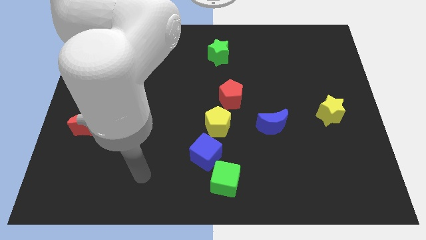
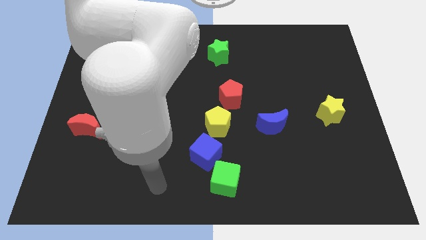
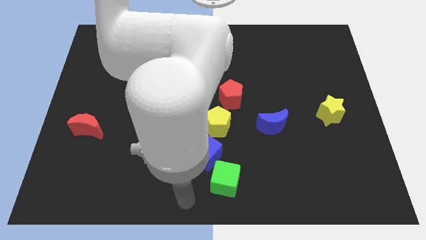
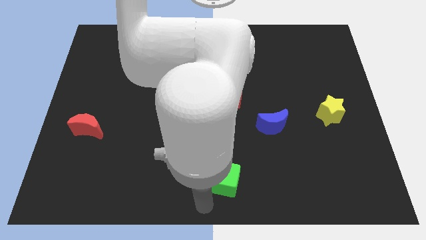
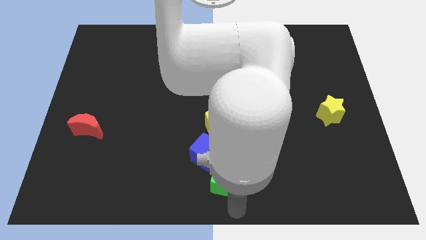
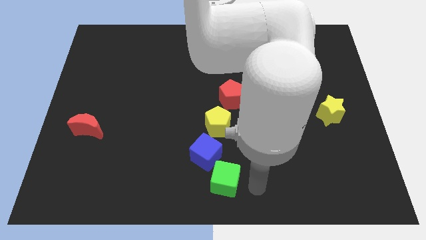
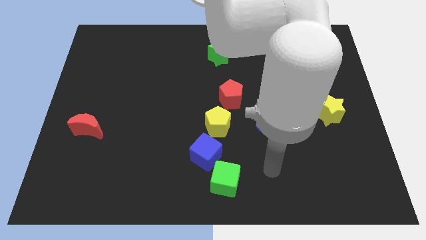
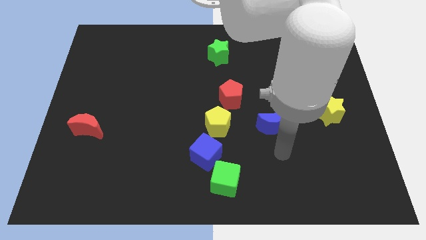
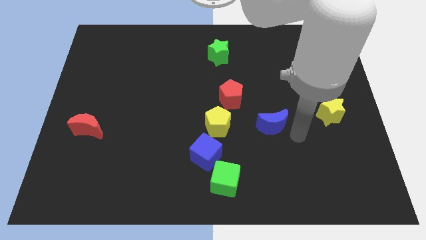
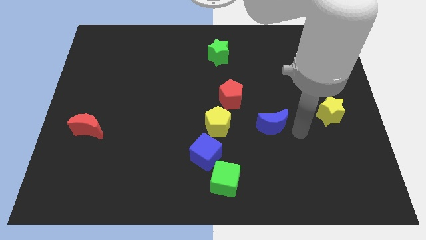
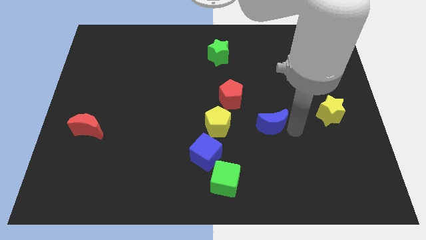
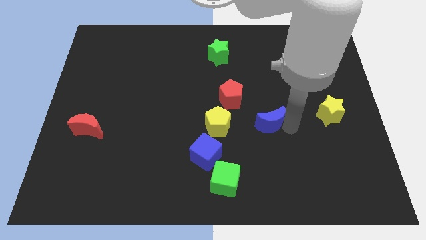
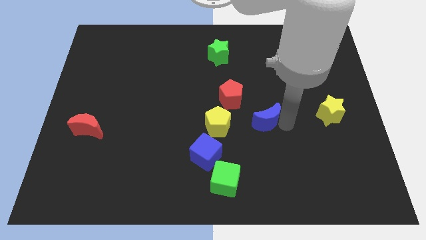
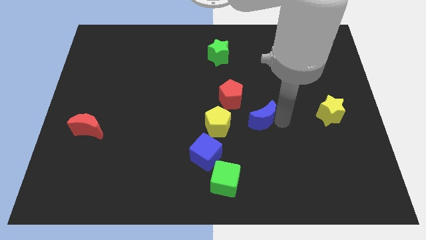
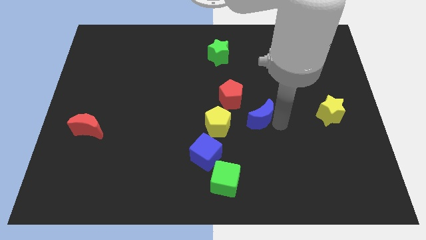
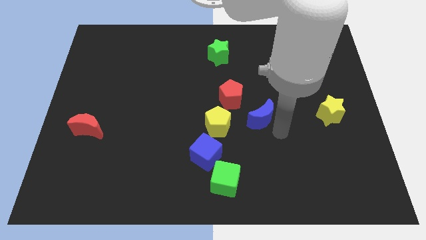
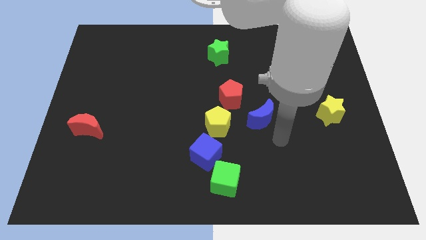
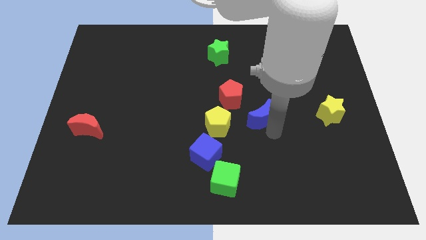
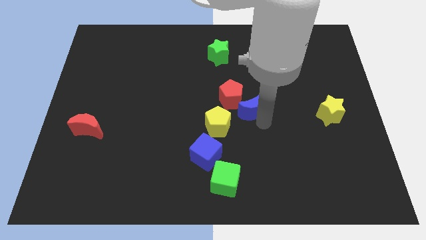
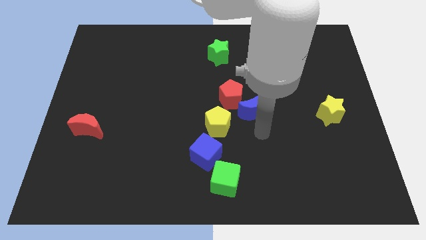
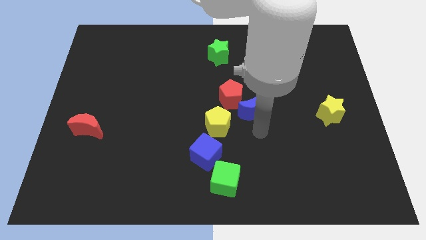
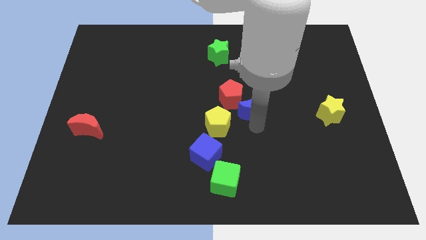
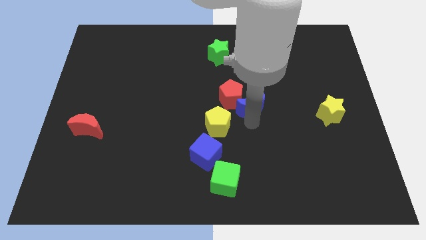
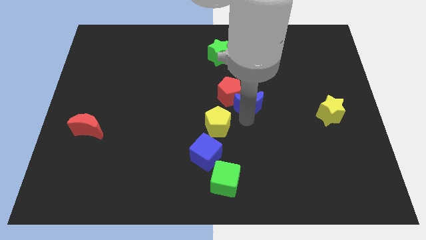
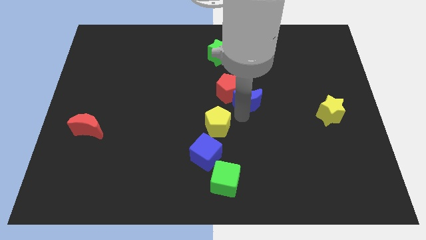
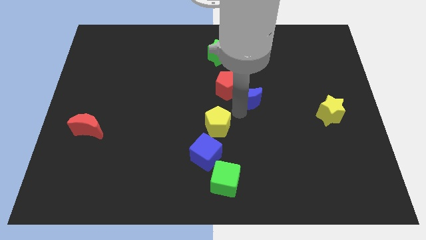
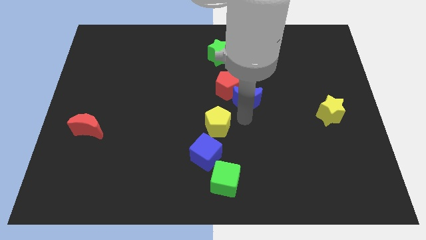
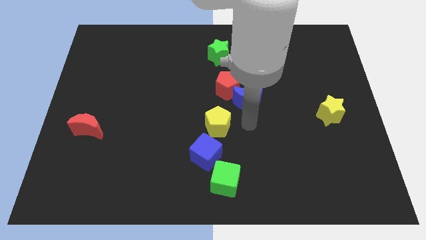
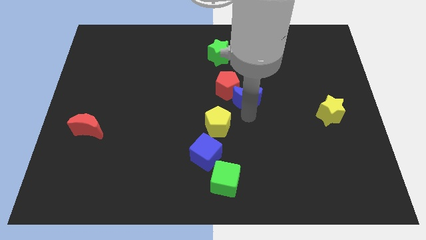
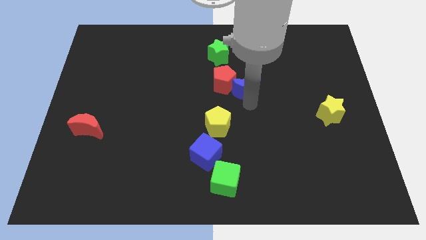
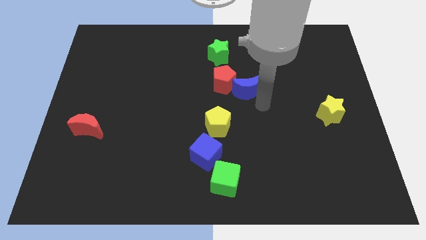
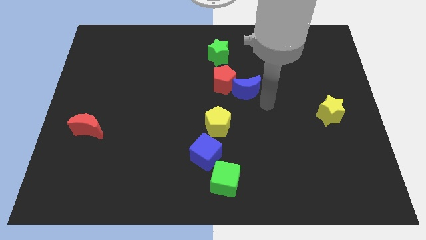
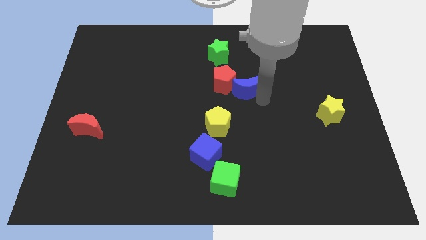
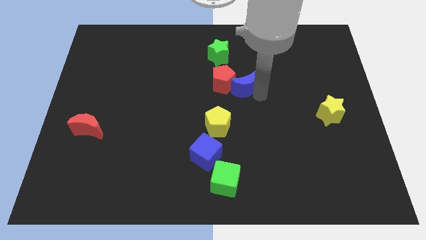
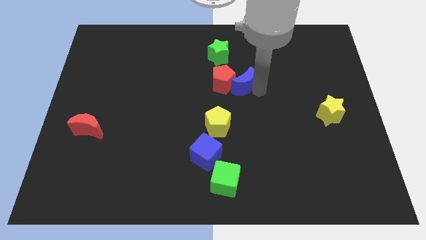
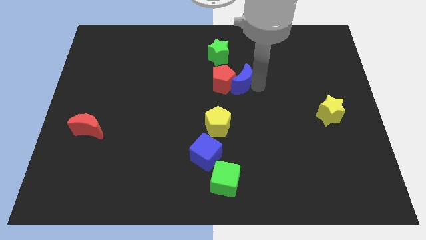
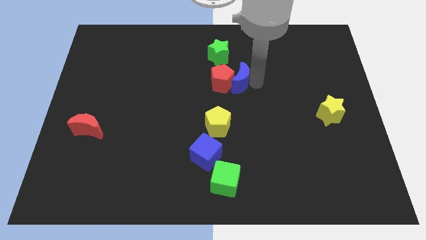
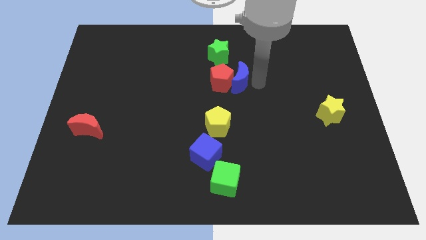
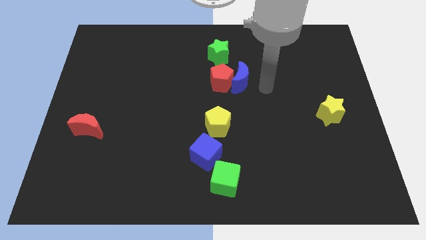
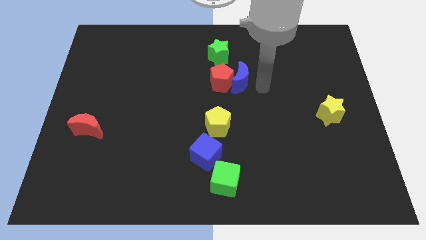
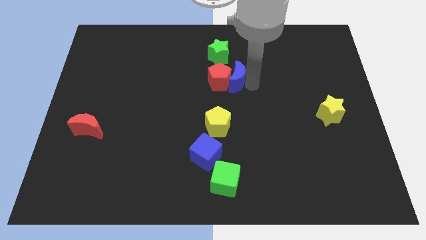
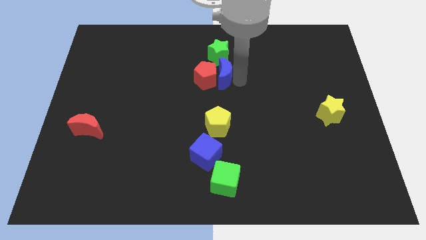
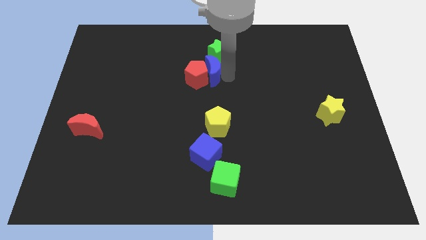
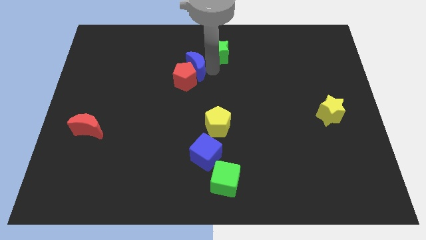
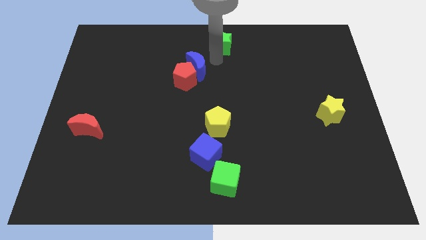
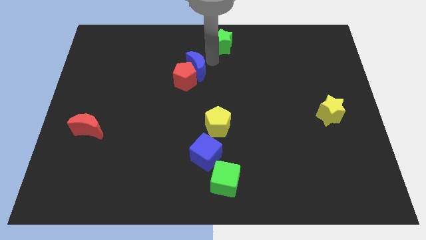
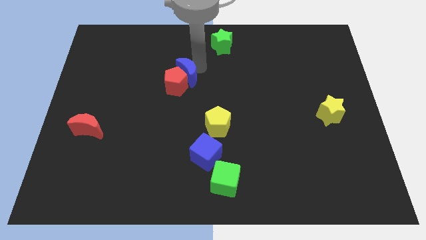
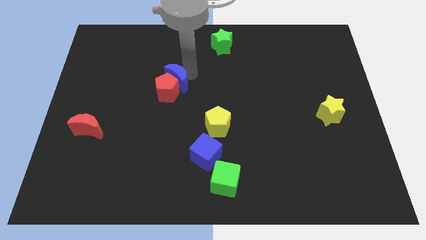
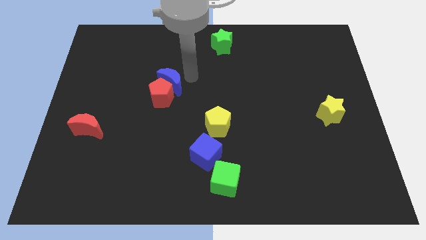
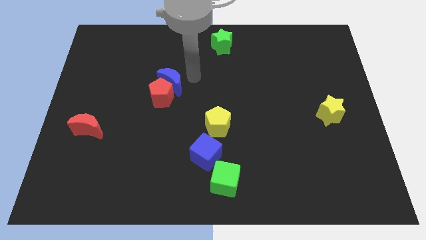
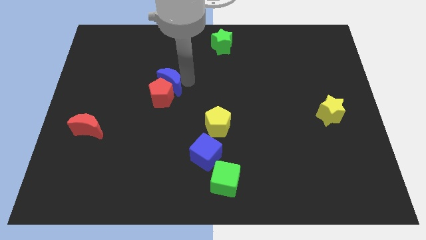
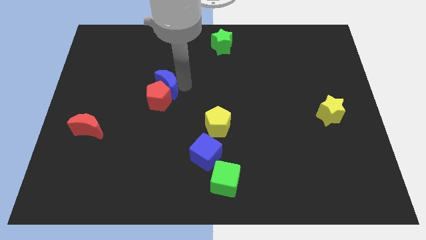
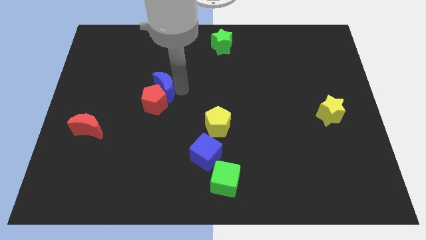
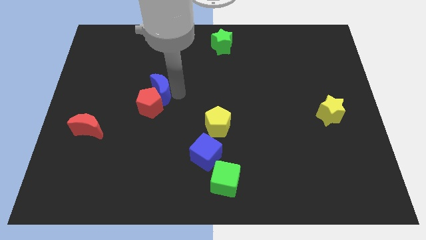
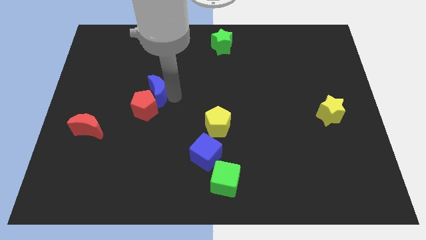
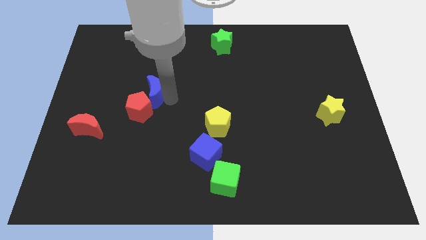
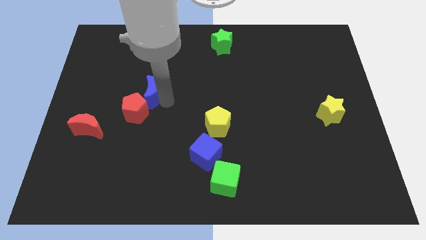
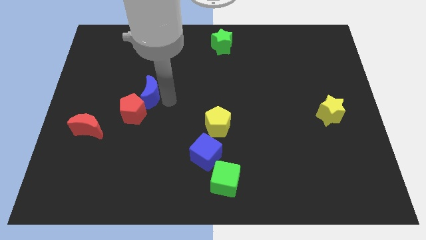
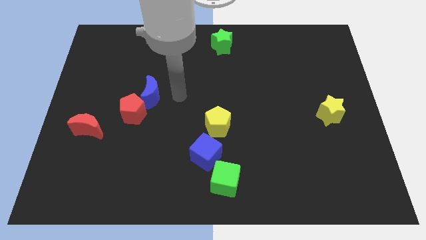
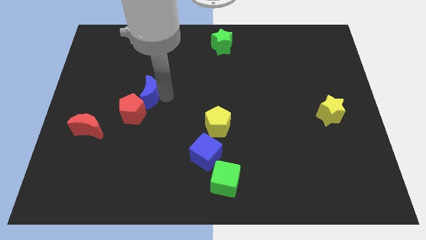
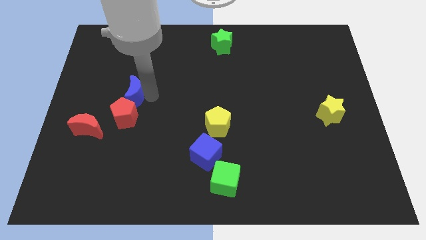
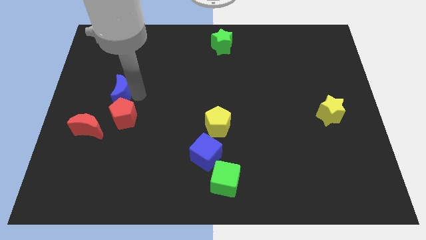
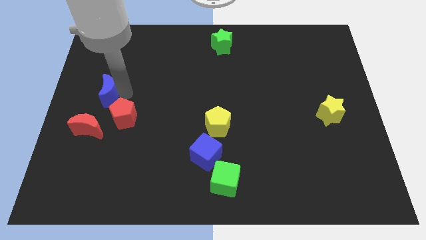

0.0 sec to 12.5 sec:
put the blue moon to the left side of the board

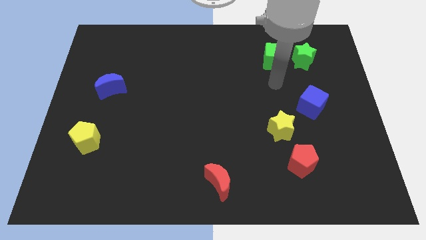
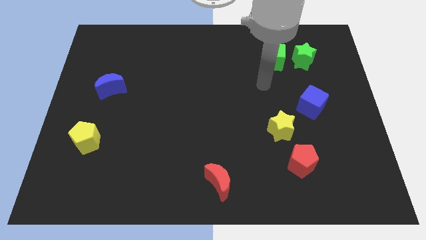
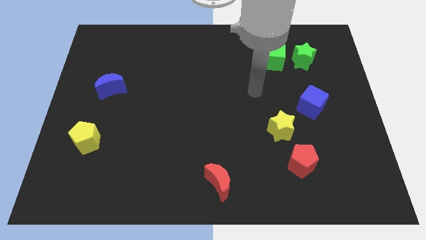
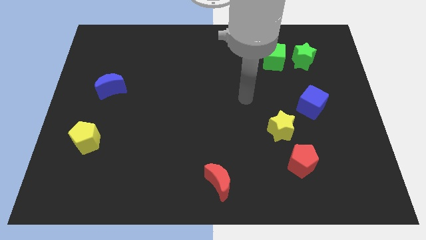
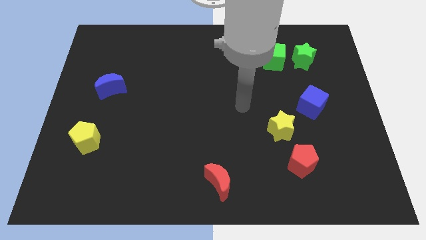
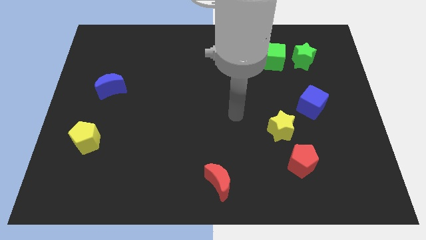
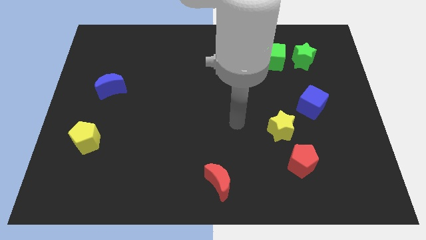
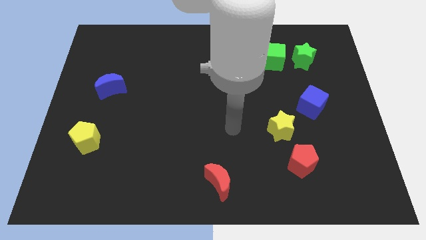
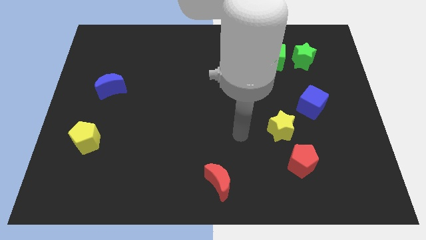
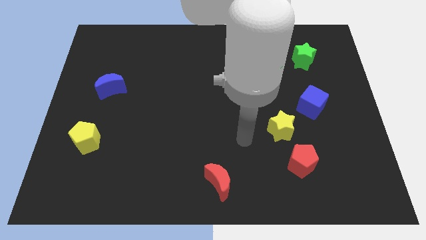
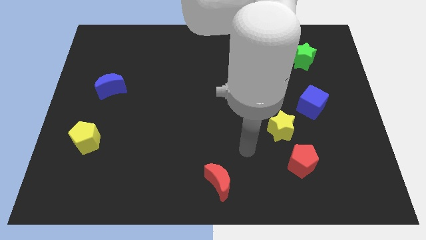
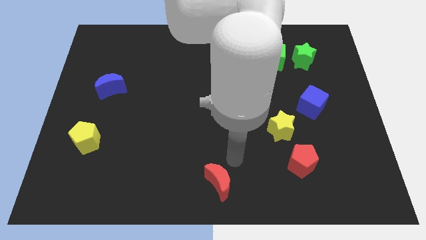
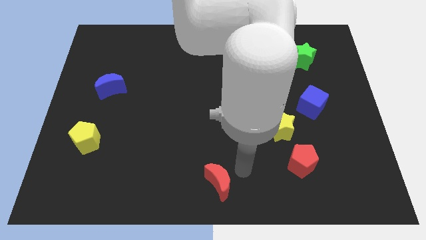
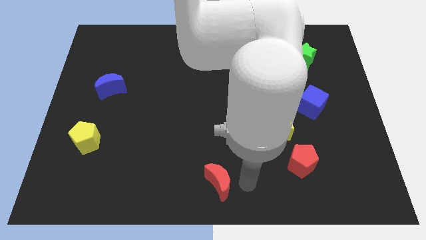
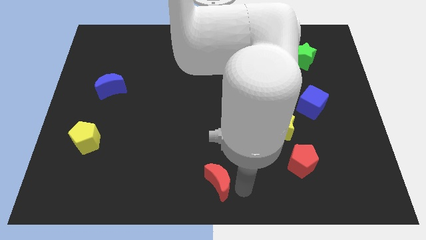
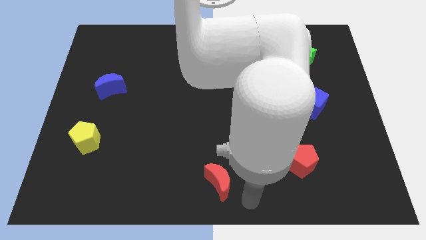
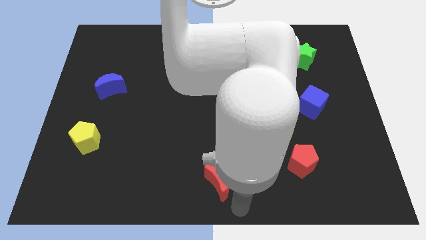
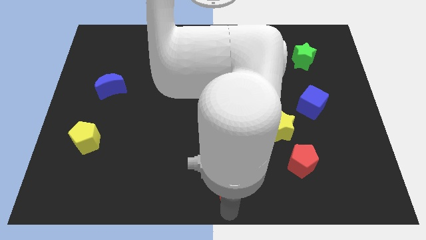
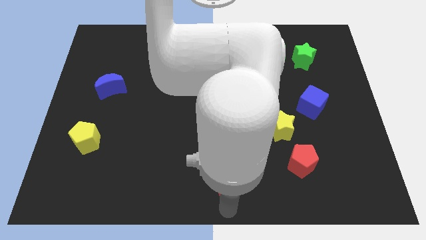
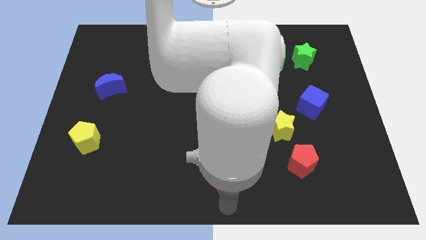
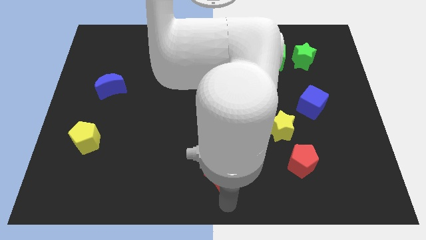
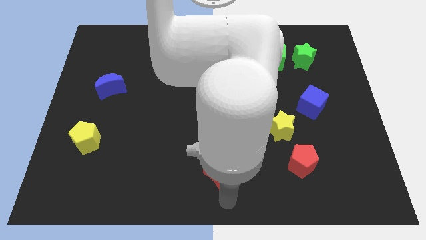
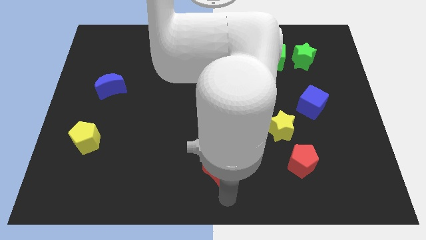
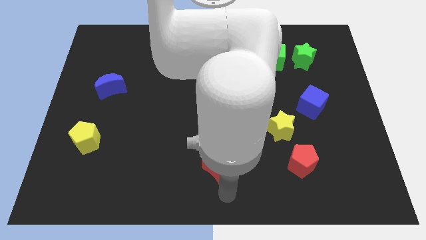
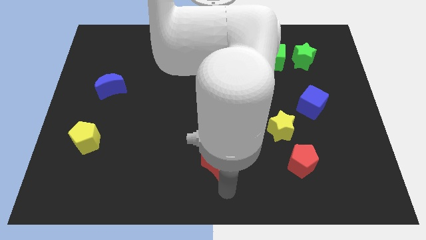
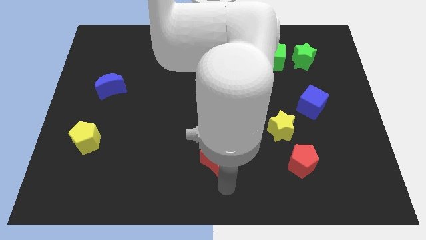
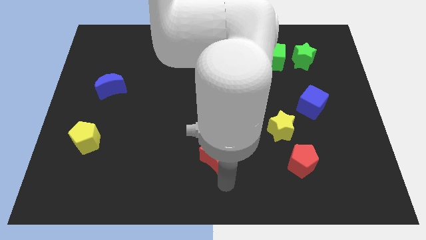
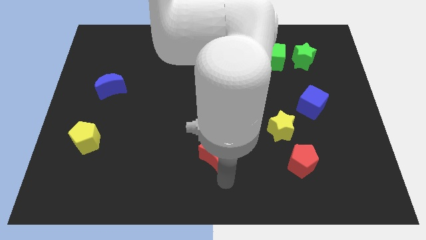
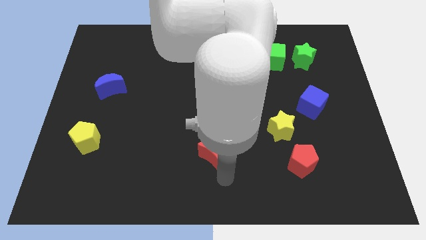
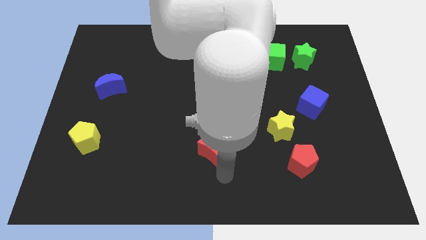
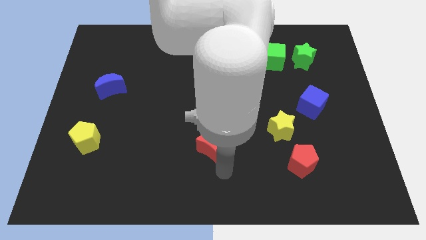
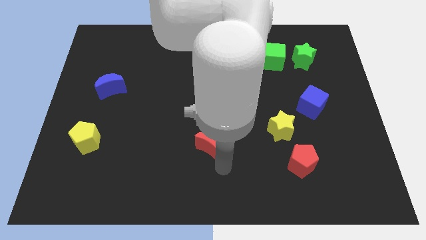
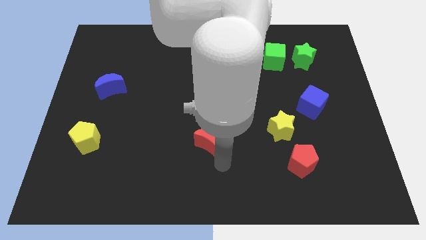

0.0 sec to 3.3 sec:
put the red moon to the middle
